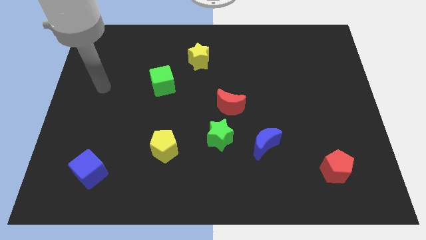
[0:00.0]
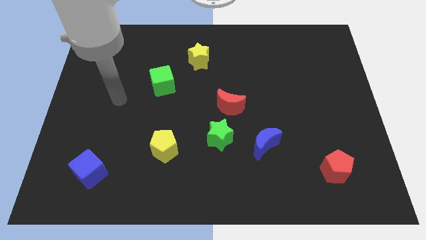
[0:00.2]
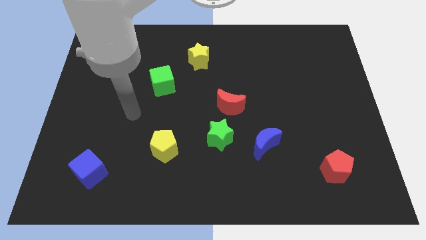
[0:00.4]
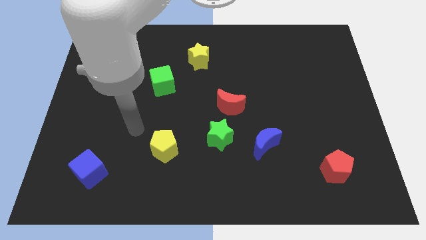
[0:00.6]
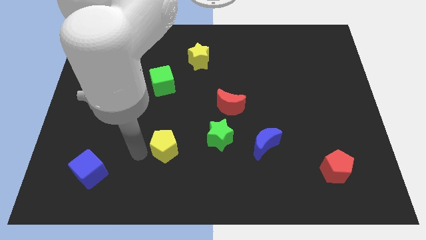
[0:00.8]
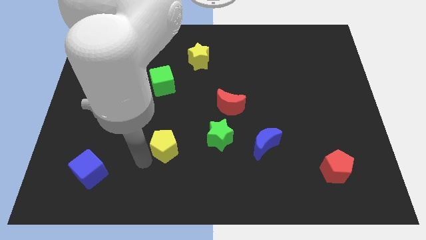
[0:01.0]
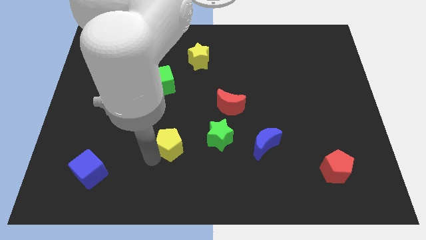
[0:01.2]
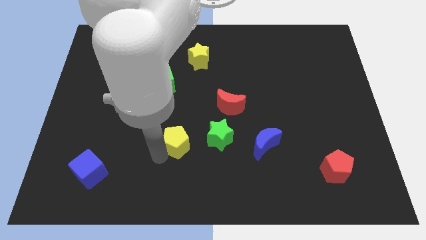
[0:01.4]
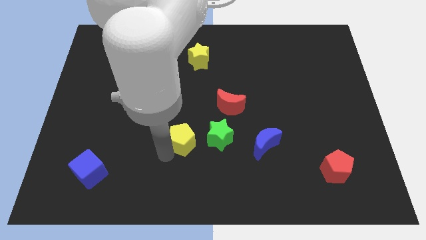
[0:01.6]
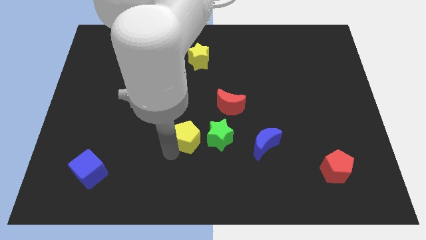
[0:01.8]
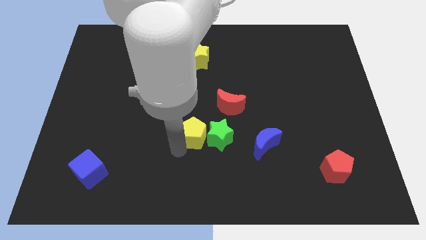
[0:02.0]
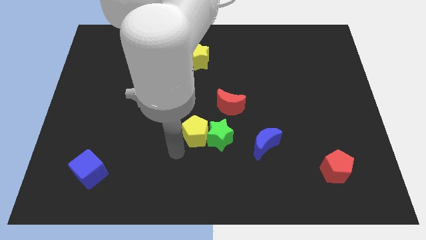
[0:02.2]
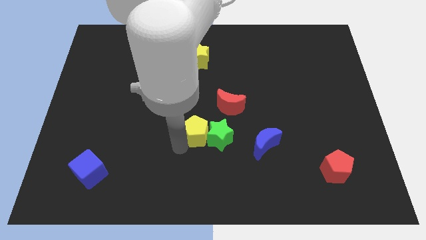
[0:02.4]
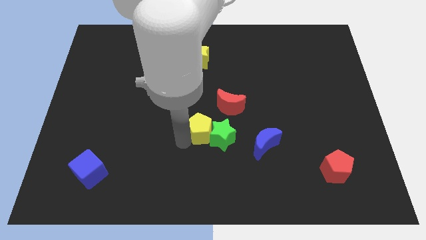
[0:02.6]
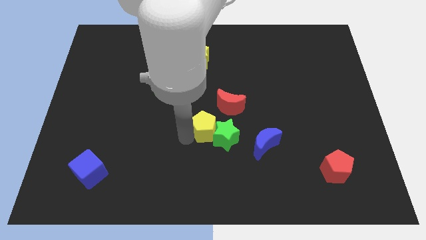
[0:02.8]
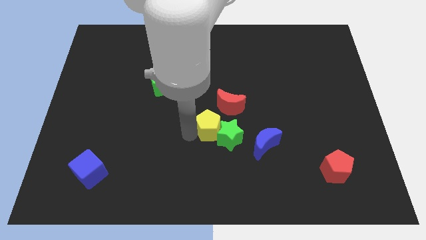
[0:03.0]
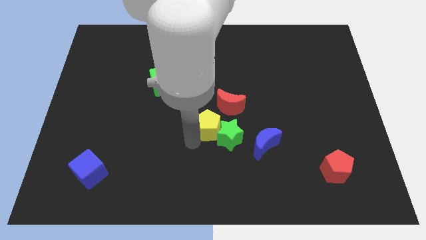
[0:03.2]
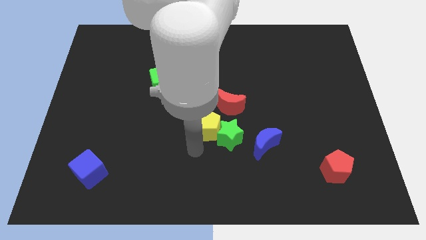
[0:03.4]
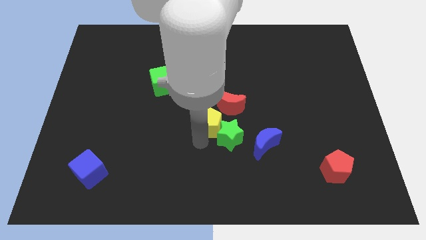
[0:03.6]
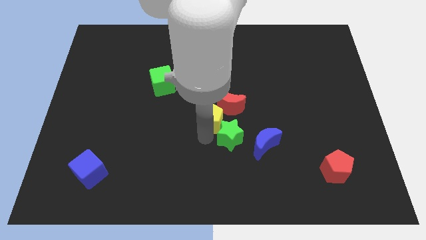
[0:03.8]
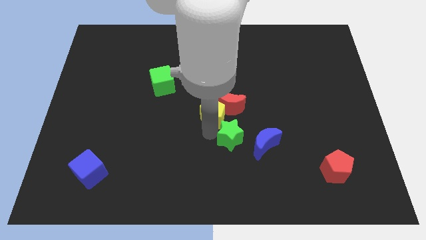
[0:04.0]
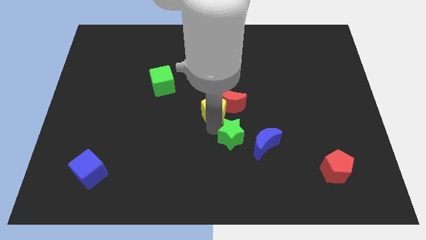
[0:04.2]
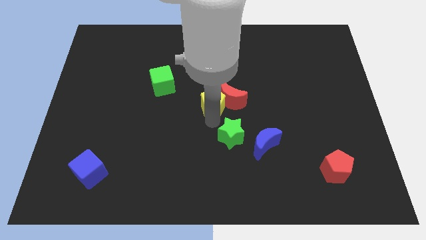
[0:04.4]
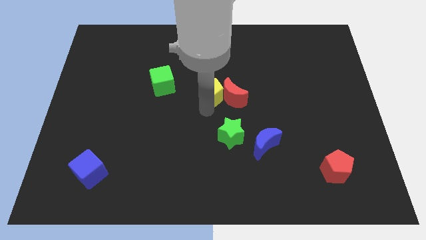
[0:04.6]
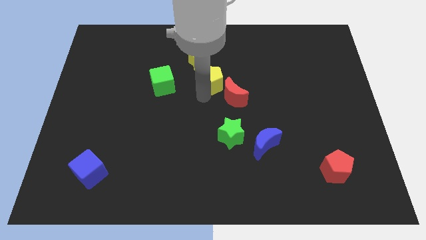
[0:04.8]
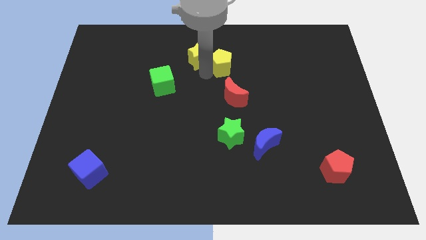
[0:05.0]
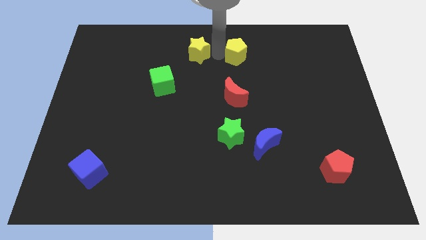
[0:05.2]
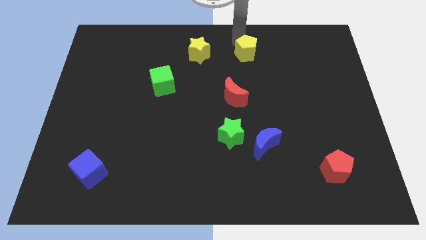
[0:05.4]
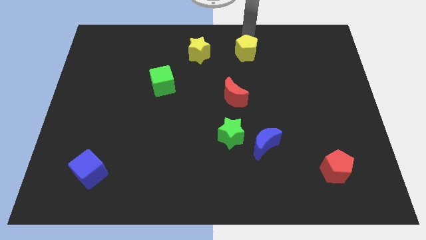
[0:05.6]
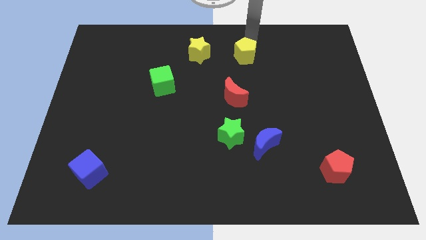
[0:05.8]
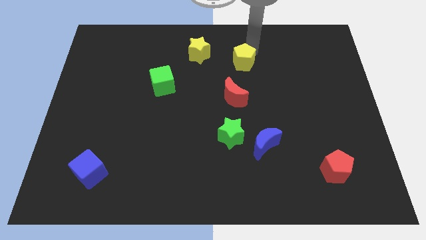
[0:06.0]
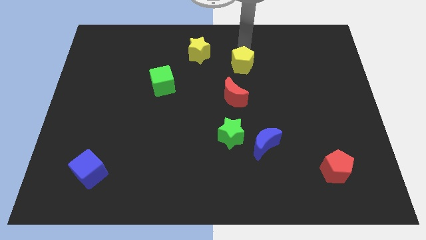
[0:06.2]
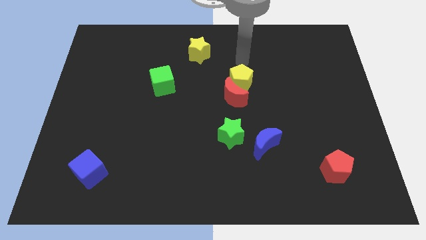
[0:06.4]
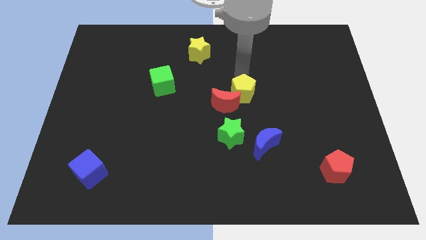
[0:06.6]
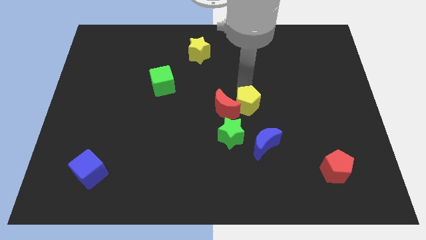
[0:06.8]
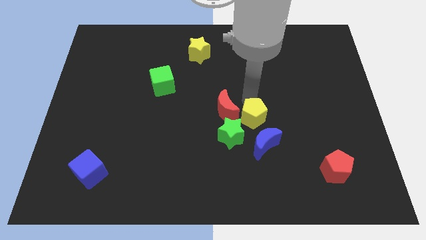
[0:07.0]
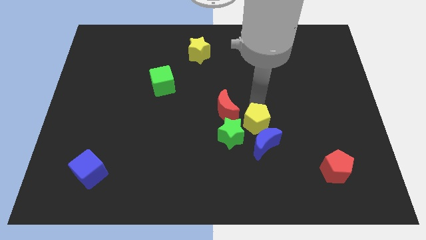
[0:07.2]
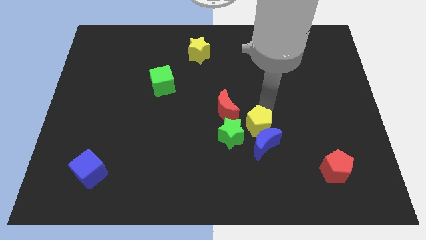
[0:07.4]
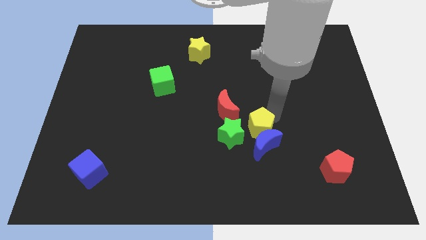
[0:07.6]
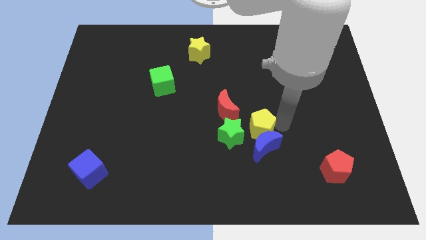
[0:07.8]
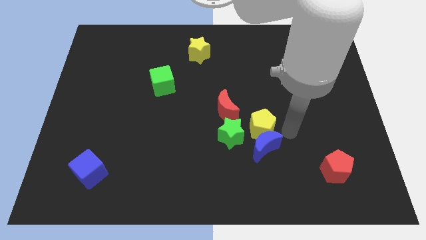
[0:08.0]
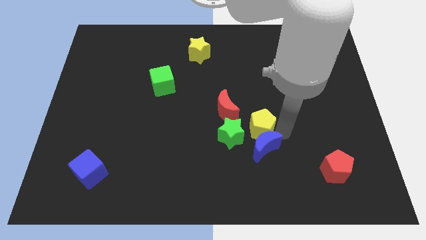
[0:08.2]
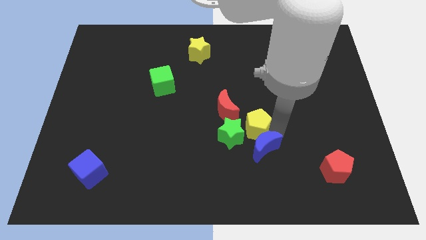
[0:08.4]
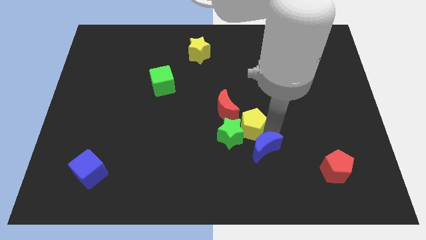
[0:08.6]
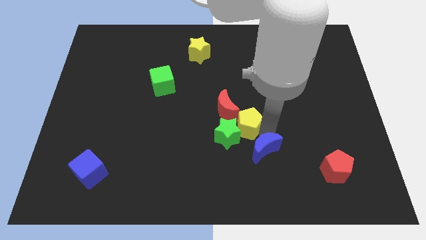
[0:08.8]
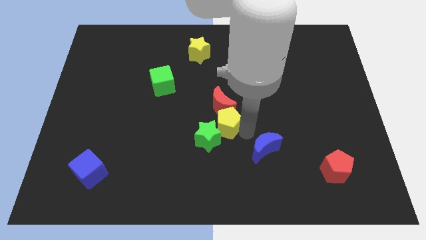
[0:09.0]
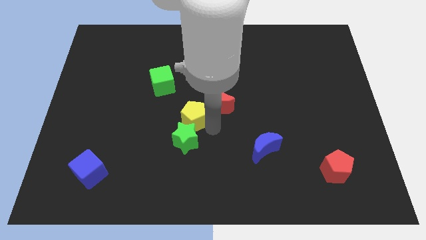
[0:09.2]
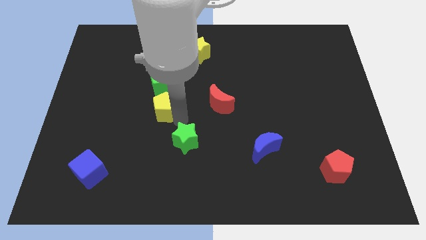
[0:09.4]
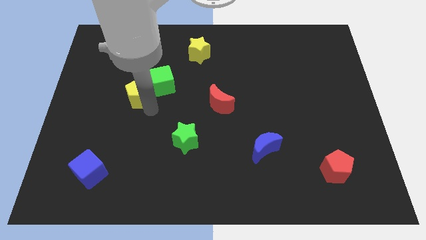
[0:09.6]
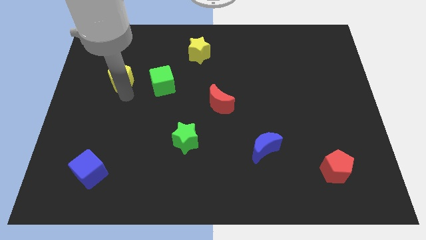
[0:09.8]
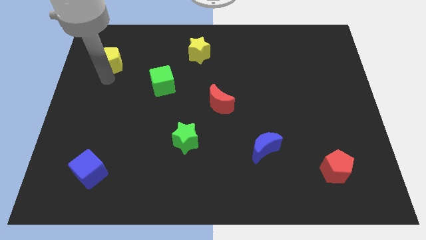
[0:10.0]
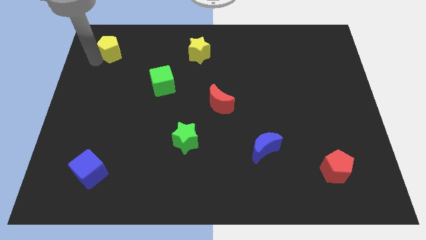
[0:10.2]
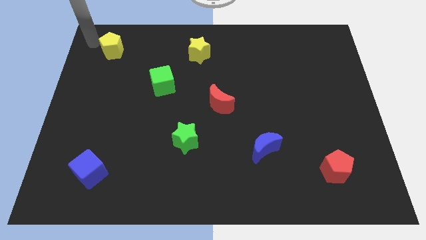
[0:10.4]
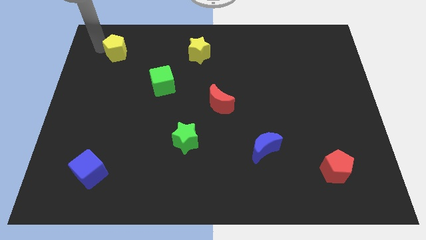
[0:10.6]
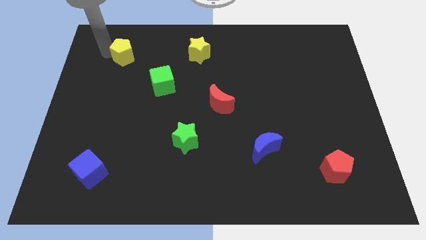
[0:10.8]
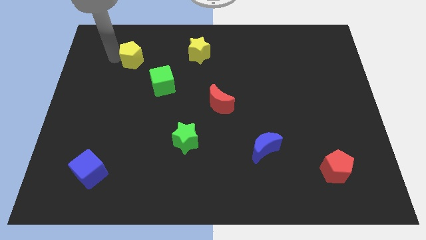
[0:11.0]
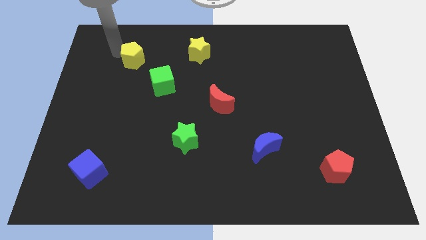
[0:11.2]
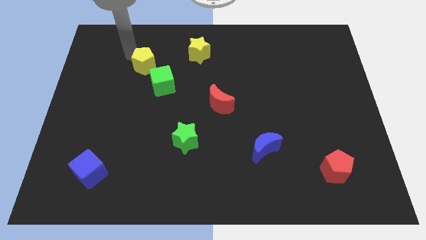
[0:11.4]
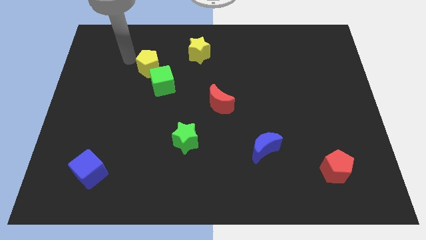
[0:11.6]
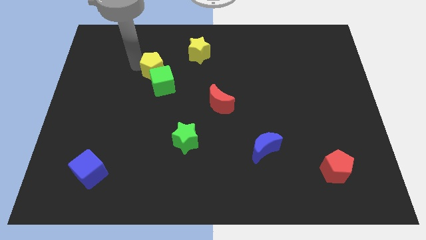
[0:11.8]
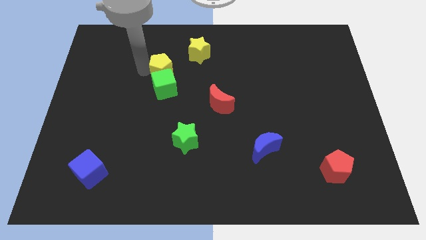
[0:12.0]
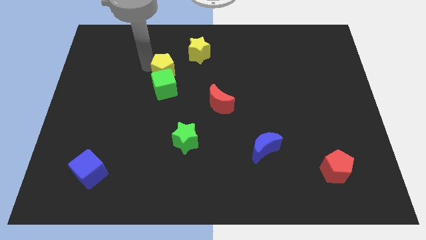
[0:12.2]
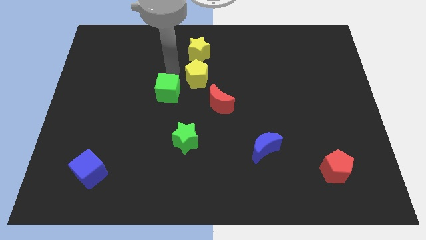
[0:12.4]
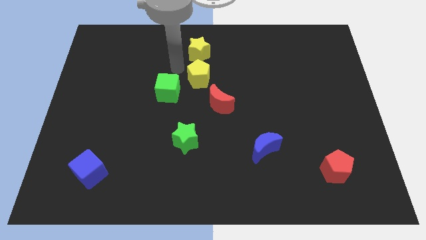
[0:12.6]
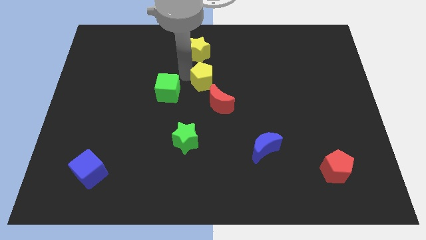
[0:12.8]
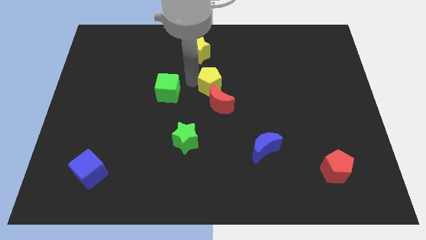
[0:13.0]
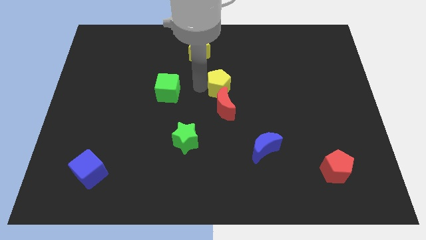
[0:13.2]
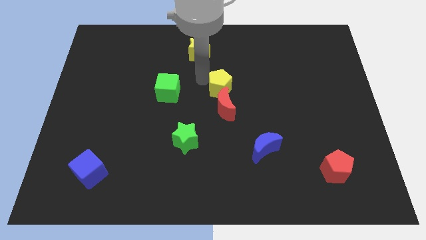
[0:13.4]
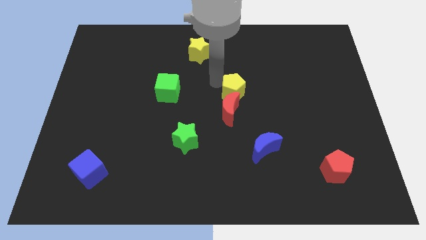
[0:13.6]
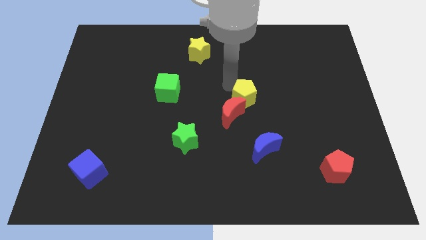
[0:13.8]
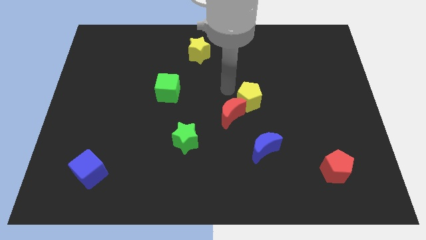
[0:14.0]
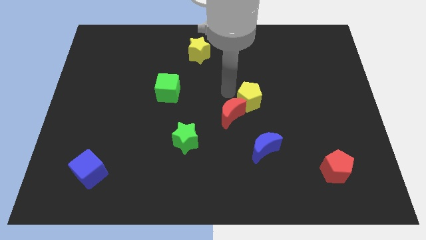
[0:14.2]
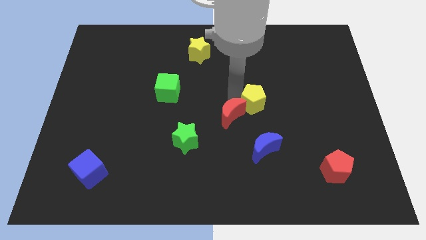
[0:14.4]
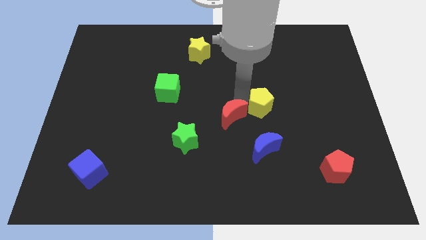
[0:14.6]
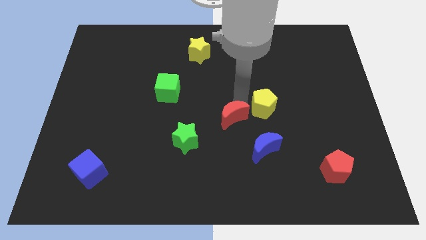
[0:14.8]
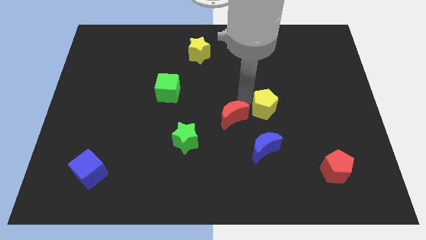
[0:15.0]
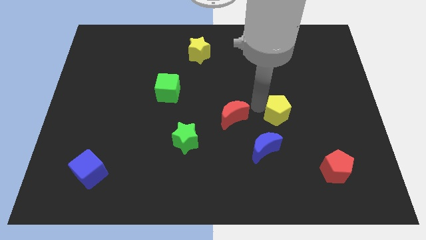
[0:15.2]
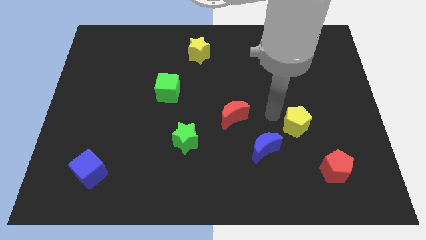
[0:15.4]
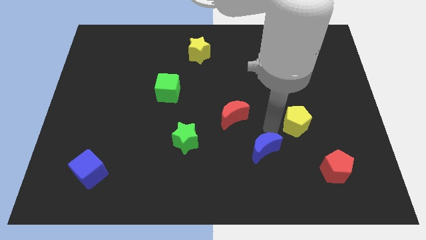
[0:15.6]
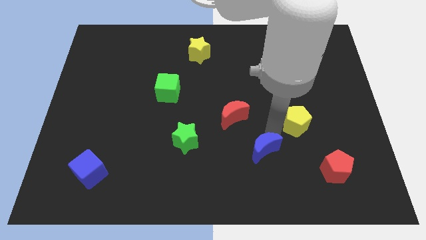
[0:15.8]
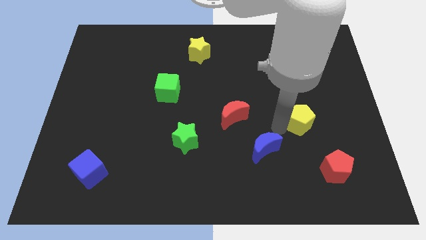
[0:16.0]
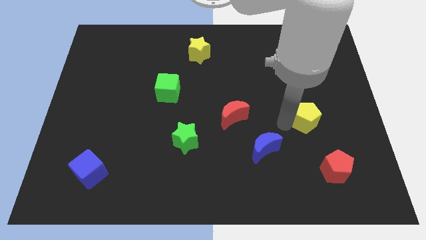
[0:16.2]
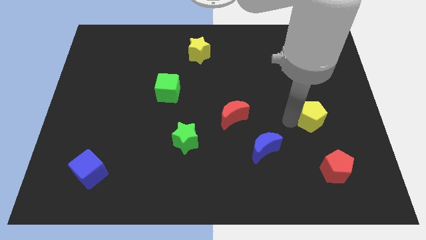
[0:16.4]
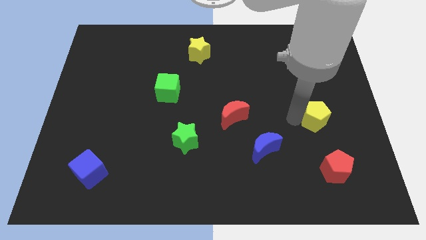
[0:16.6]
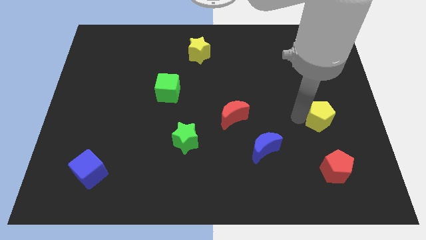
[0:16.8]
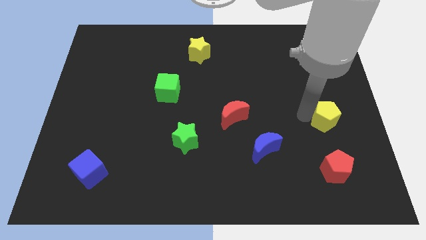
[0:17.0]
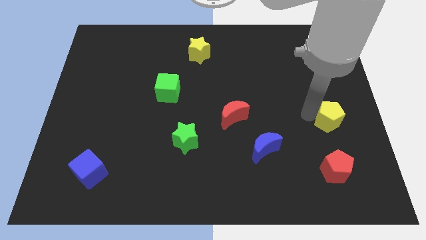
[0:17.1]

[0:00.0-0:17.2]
push the yellow pentagon to the center right
